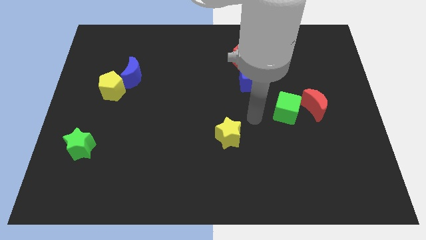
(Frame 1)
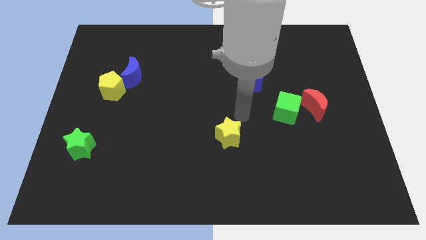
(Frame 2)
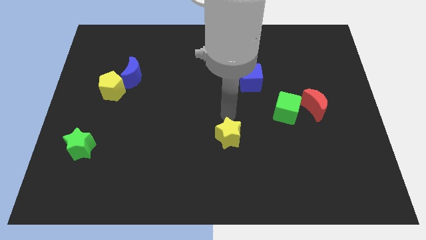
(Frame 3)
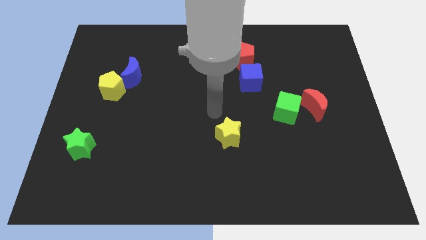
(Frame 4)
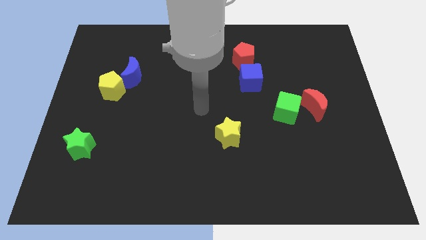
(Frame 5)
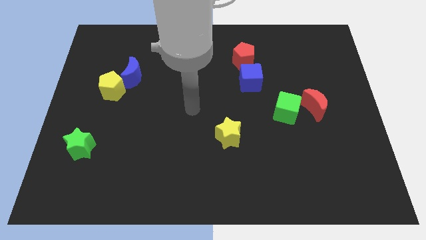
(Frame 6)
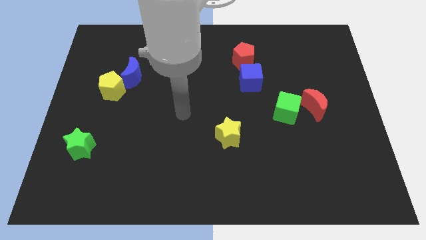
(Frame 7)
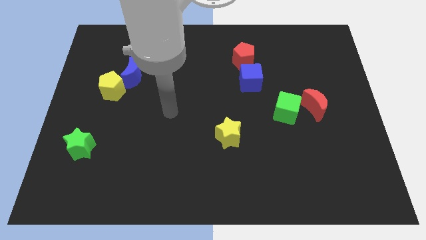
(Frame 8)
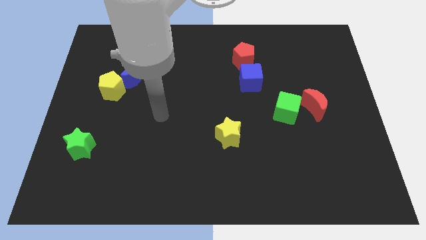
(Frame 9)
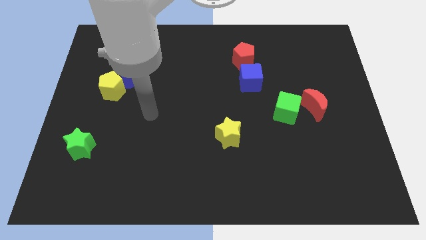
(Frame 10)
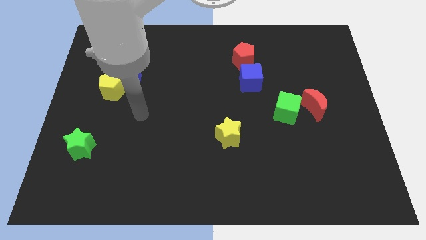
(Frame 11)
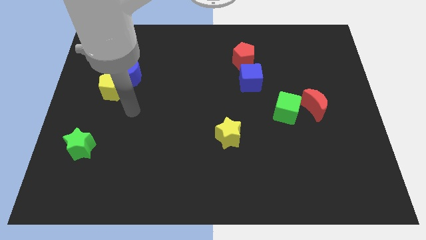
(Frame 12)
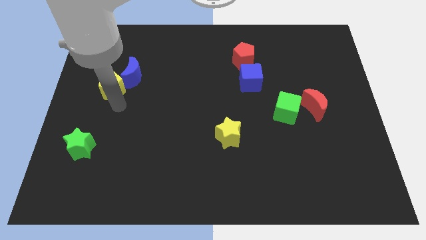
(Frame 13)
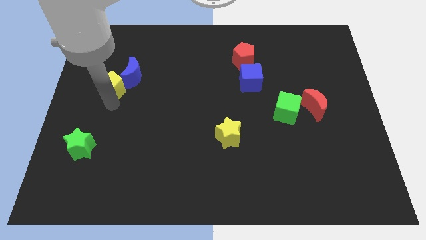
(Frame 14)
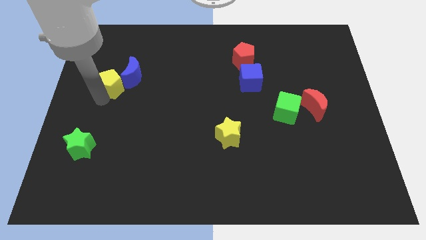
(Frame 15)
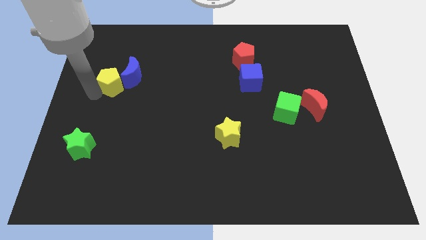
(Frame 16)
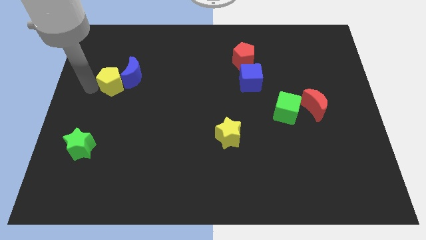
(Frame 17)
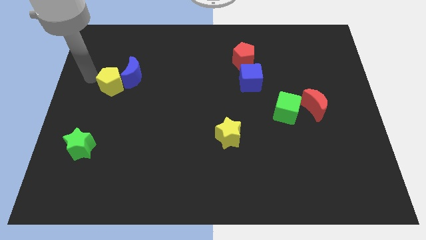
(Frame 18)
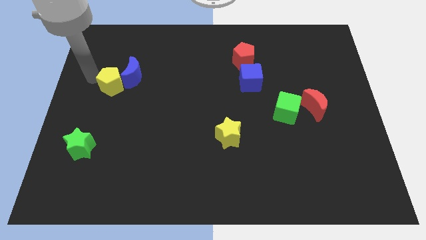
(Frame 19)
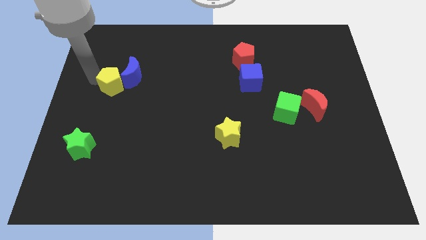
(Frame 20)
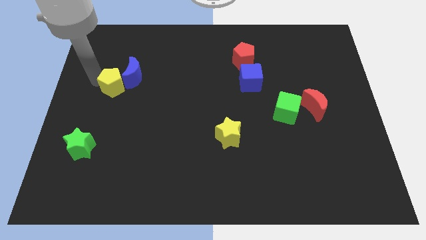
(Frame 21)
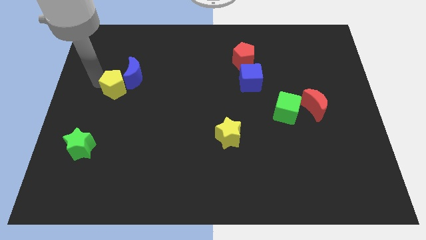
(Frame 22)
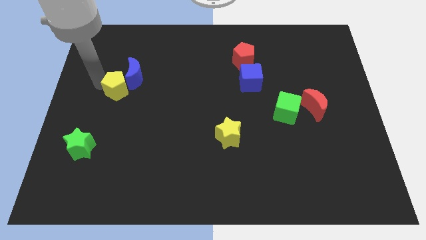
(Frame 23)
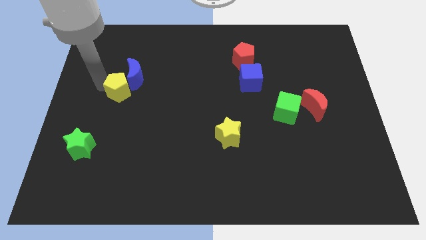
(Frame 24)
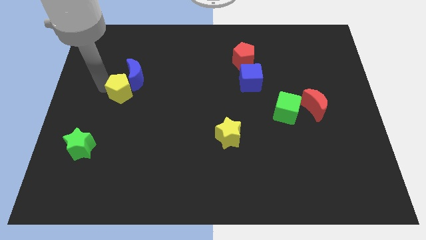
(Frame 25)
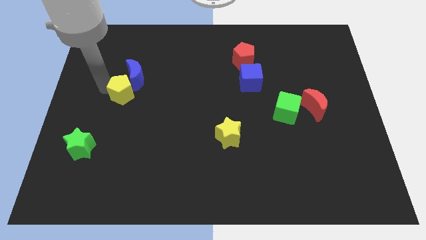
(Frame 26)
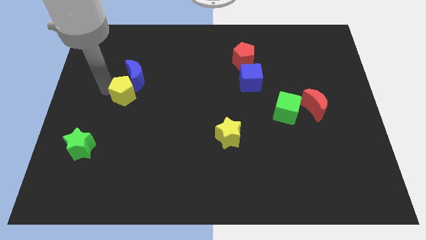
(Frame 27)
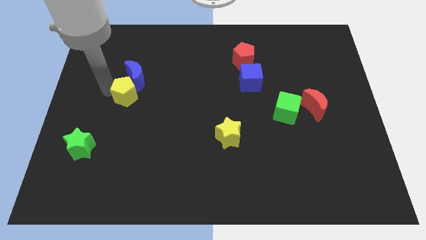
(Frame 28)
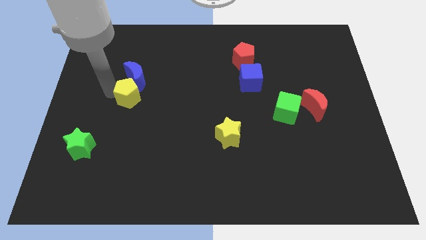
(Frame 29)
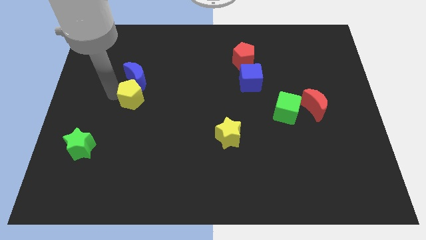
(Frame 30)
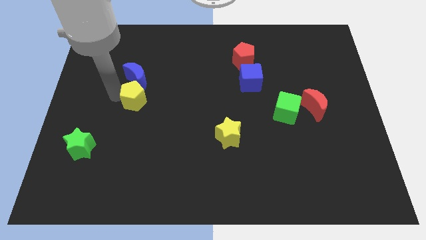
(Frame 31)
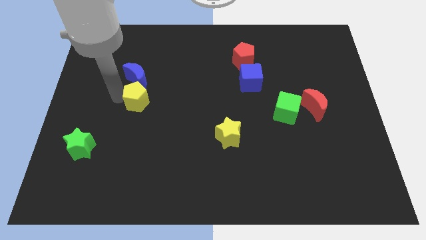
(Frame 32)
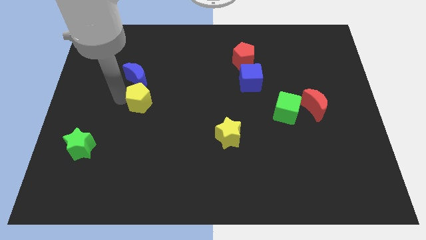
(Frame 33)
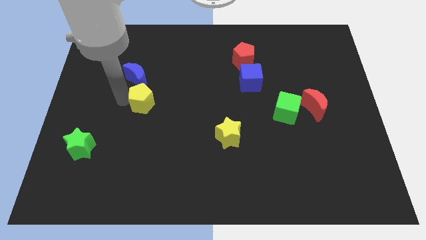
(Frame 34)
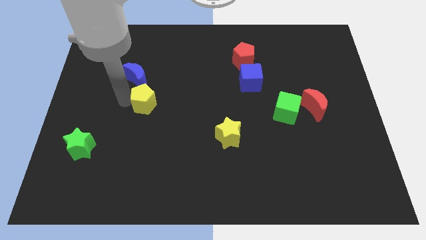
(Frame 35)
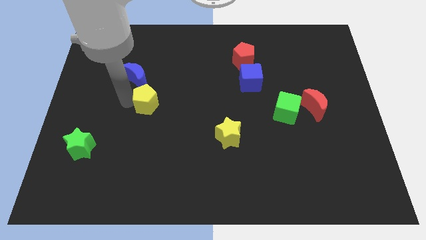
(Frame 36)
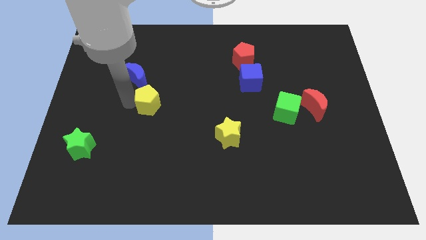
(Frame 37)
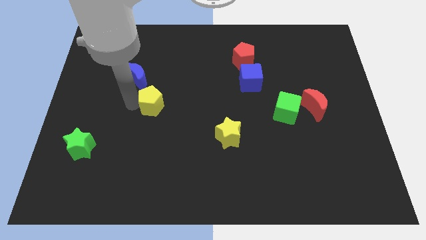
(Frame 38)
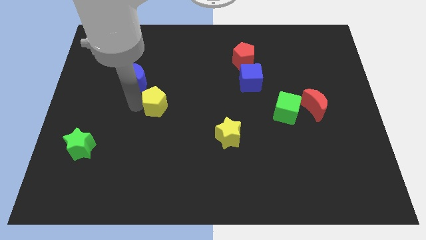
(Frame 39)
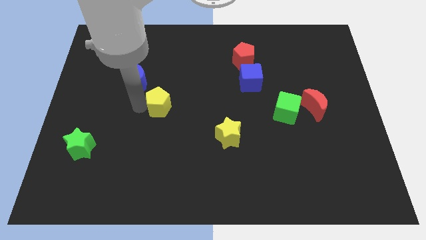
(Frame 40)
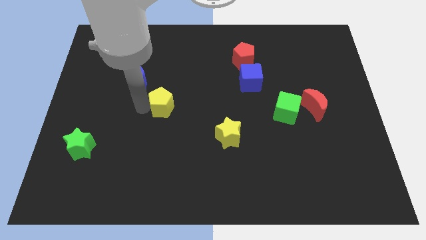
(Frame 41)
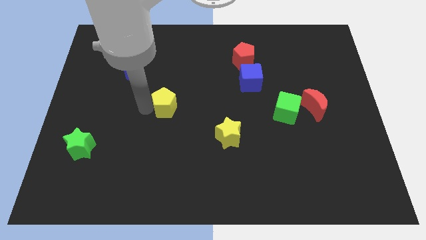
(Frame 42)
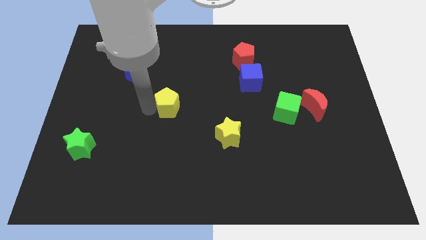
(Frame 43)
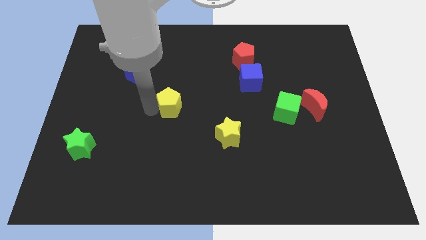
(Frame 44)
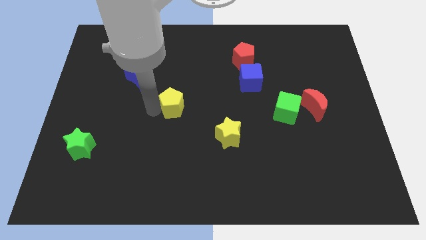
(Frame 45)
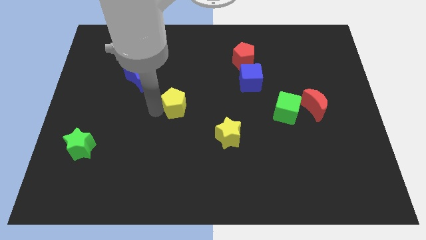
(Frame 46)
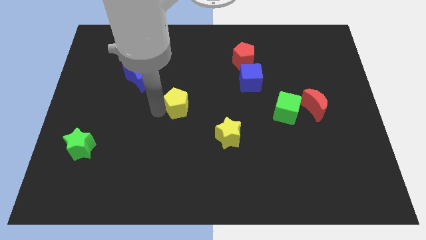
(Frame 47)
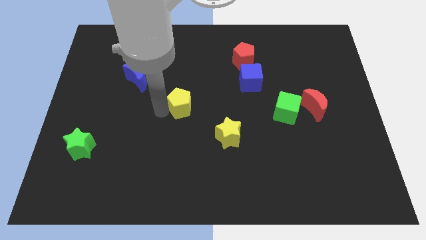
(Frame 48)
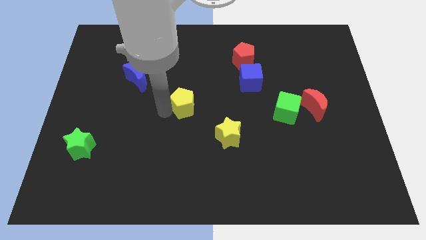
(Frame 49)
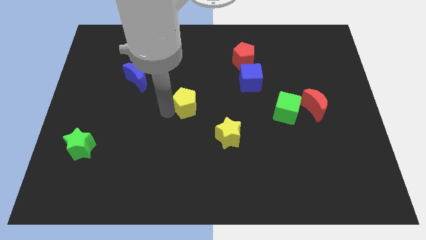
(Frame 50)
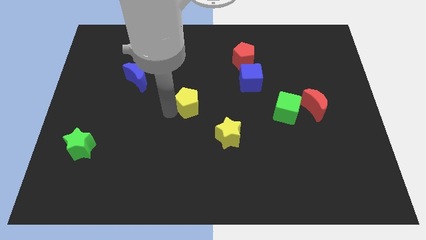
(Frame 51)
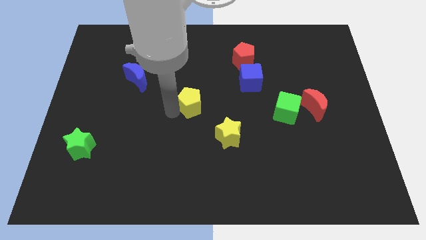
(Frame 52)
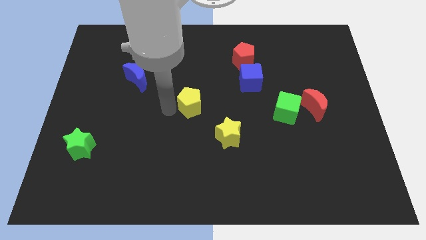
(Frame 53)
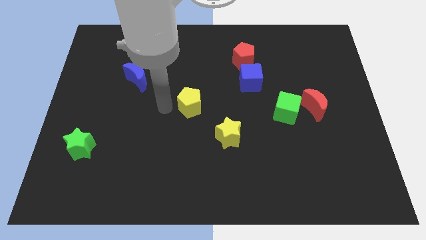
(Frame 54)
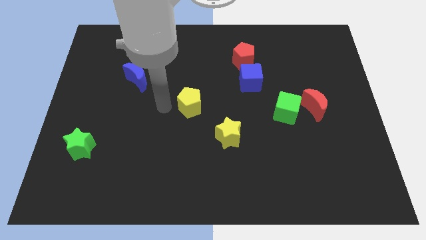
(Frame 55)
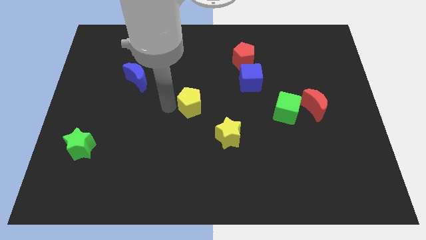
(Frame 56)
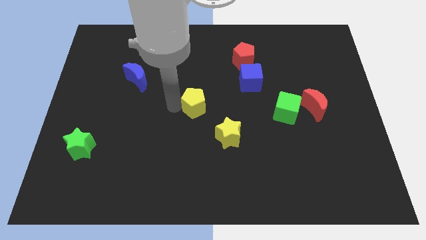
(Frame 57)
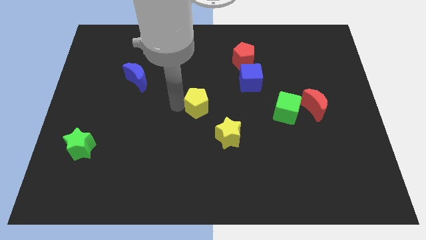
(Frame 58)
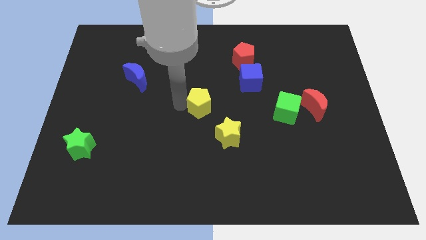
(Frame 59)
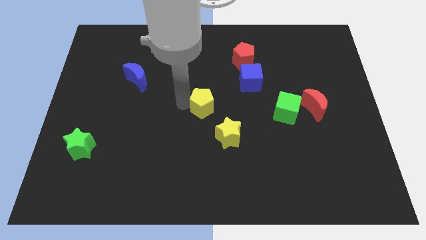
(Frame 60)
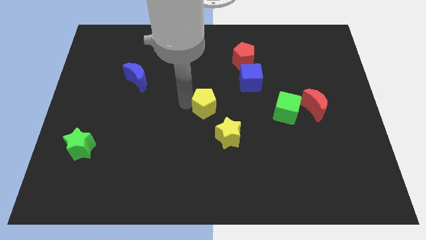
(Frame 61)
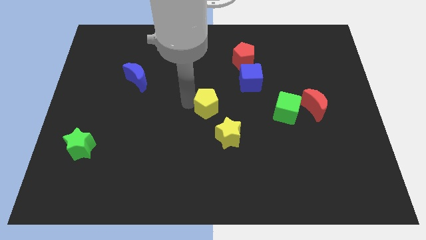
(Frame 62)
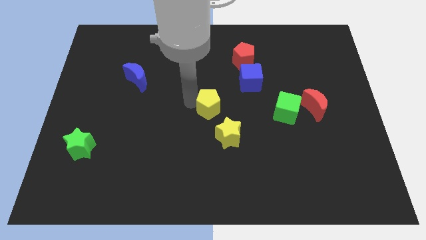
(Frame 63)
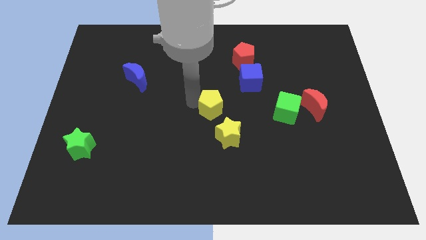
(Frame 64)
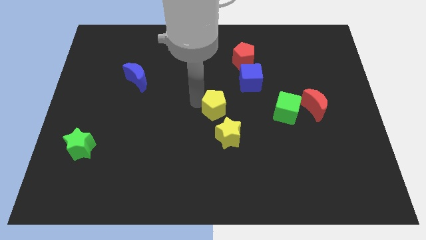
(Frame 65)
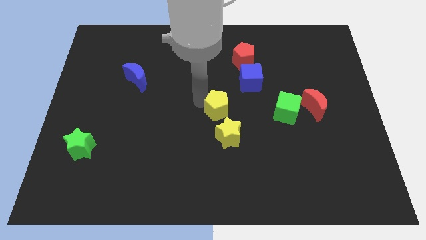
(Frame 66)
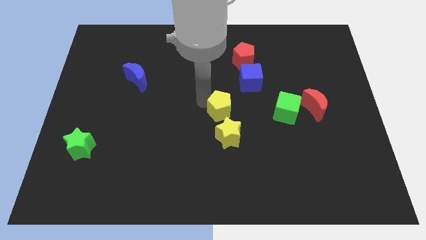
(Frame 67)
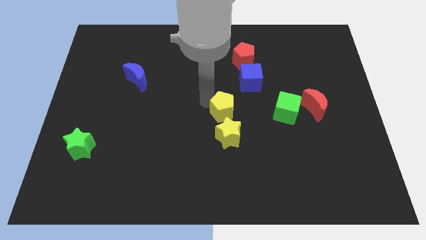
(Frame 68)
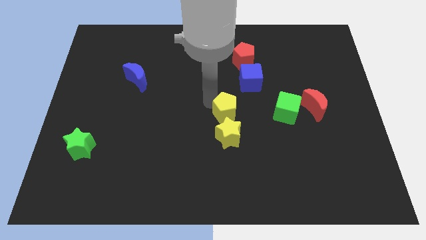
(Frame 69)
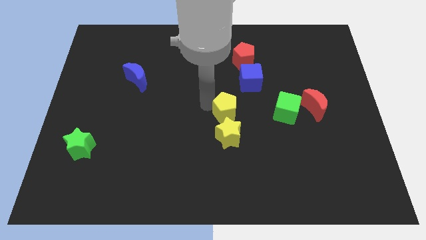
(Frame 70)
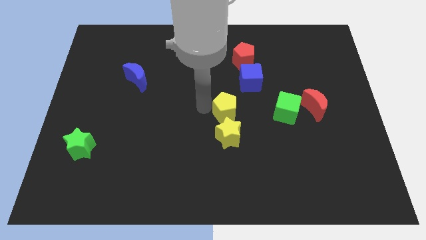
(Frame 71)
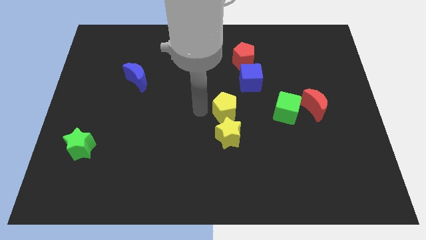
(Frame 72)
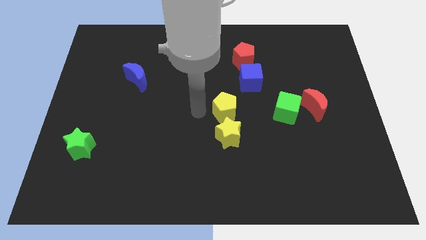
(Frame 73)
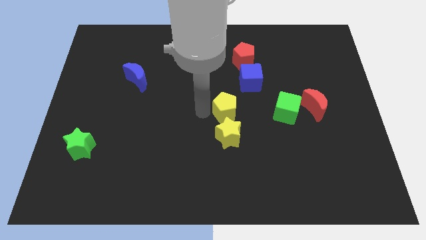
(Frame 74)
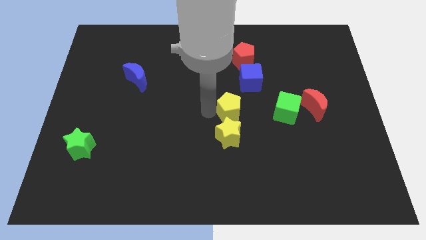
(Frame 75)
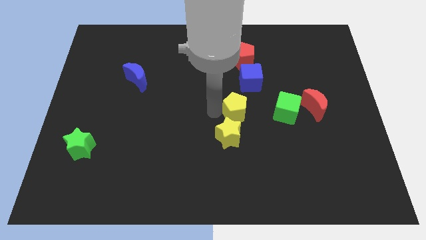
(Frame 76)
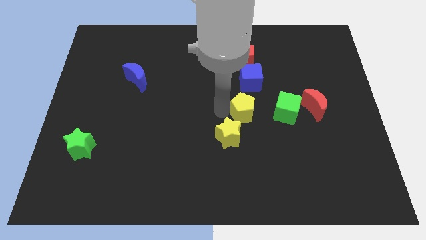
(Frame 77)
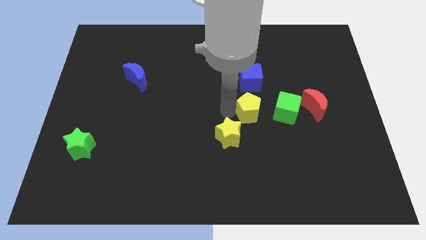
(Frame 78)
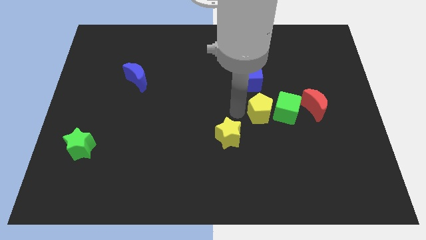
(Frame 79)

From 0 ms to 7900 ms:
put the yellow pentagon towards the green cube
